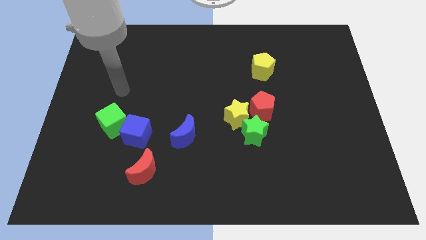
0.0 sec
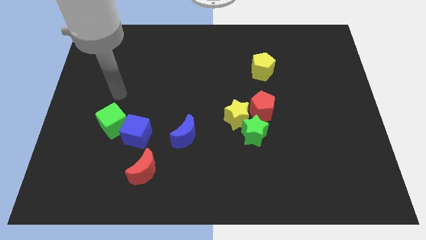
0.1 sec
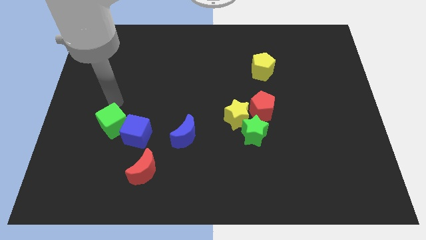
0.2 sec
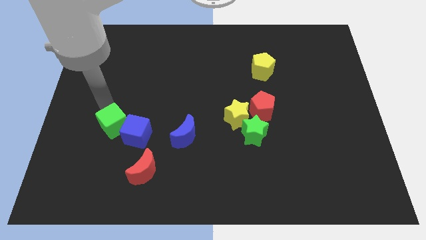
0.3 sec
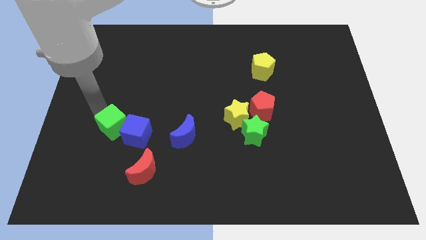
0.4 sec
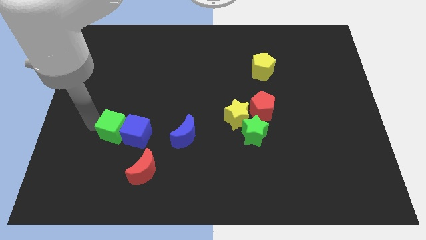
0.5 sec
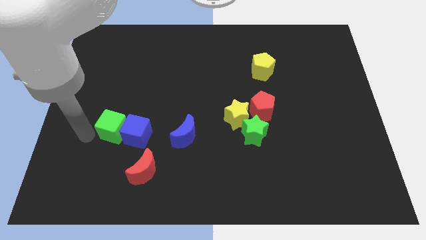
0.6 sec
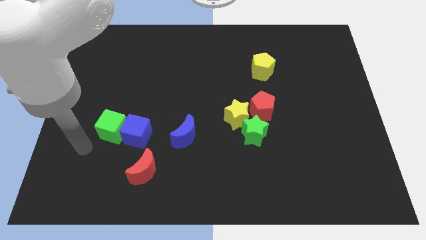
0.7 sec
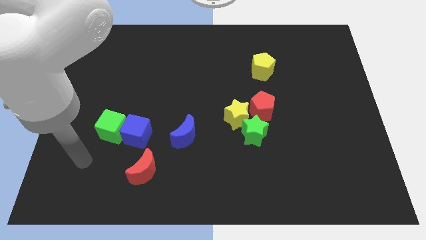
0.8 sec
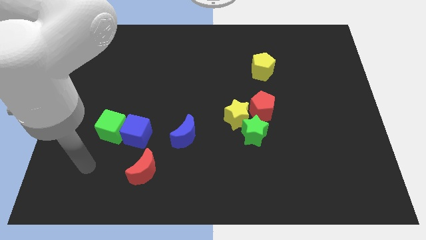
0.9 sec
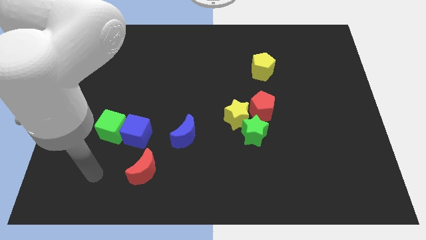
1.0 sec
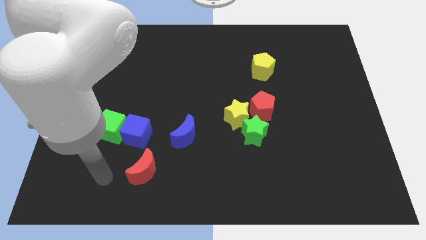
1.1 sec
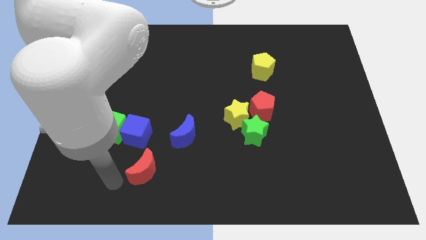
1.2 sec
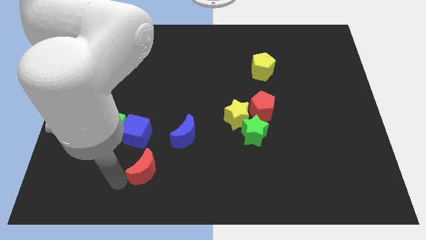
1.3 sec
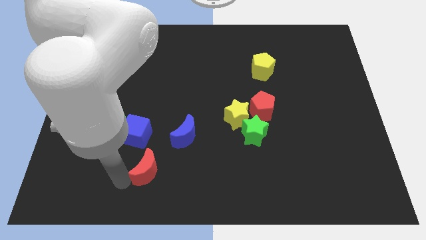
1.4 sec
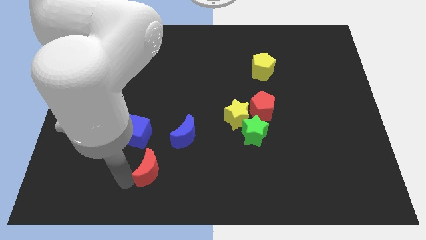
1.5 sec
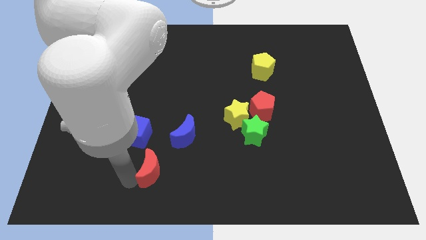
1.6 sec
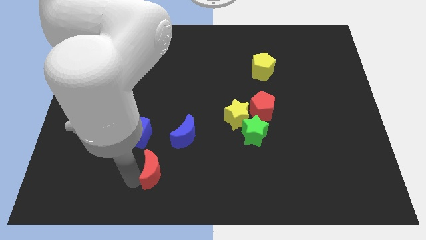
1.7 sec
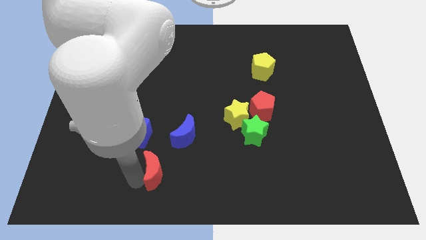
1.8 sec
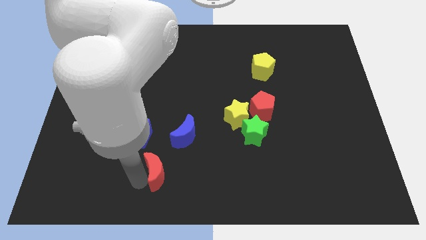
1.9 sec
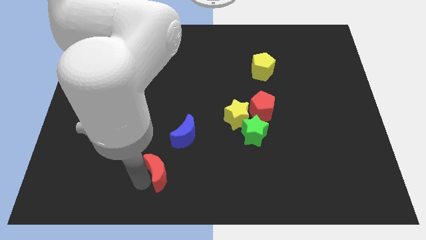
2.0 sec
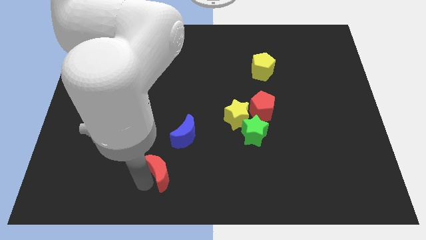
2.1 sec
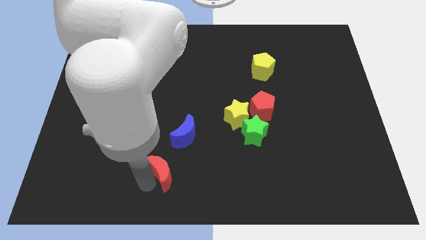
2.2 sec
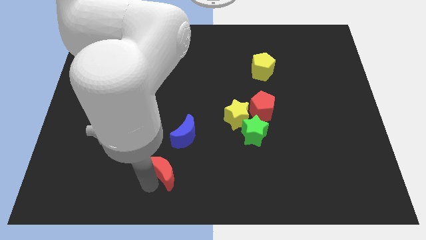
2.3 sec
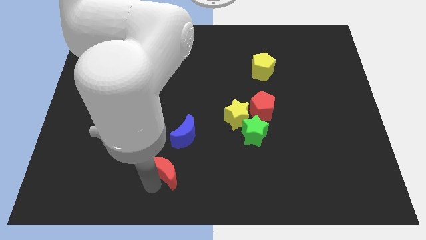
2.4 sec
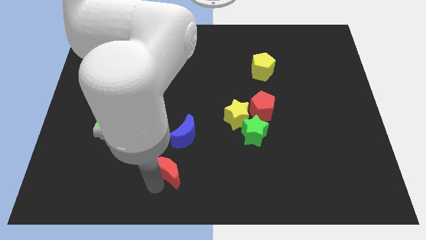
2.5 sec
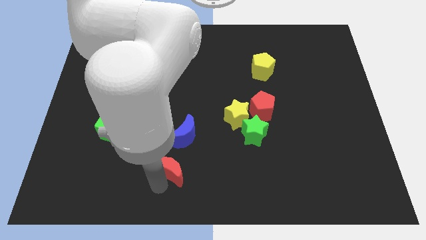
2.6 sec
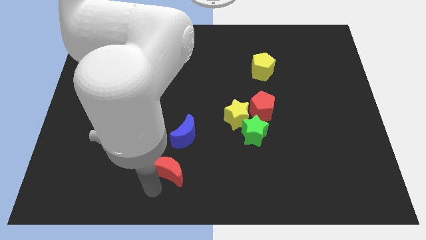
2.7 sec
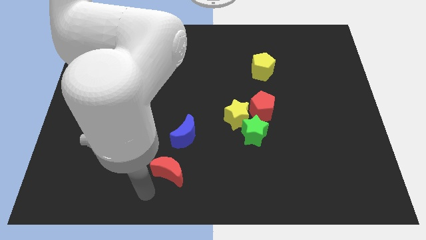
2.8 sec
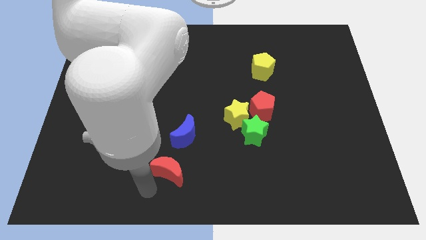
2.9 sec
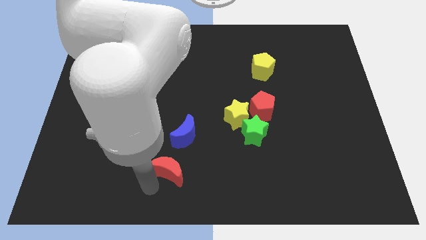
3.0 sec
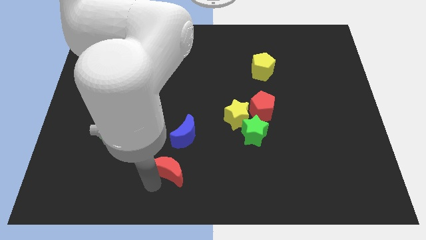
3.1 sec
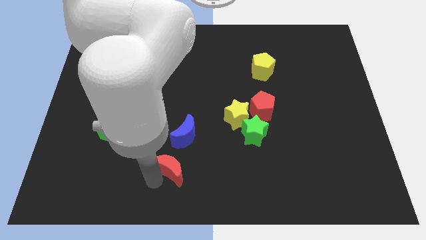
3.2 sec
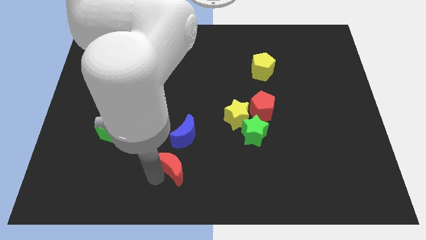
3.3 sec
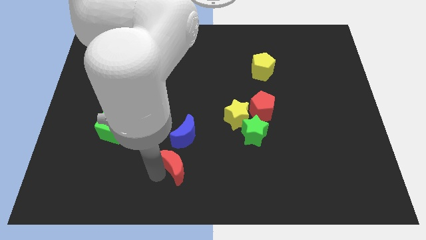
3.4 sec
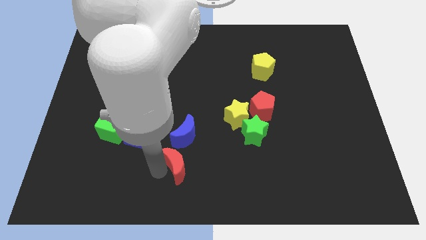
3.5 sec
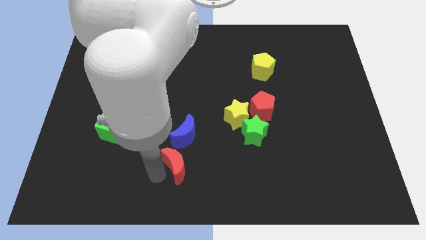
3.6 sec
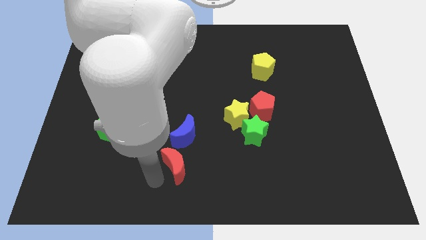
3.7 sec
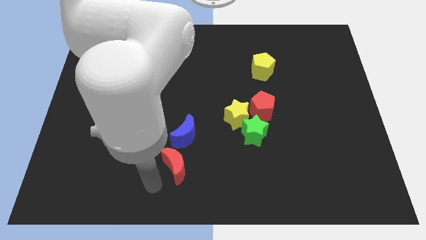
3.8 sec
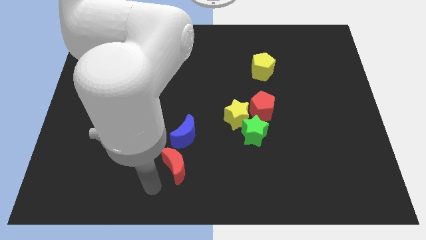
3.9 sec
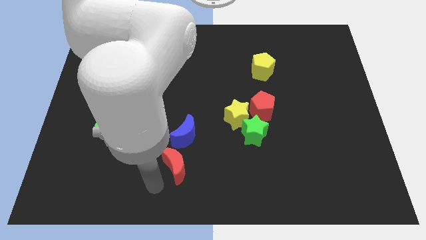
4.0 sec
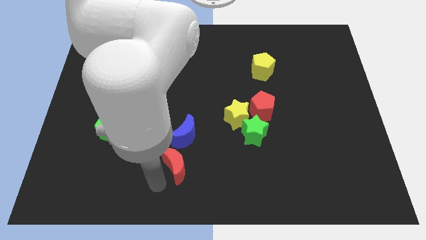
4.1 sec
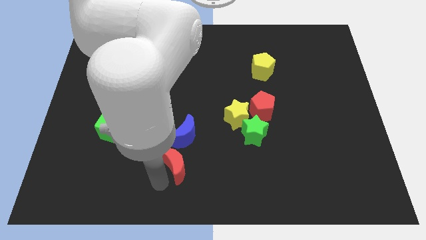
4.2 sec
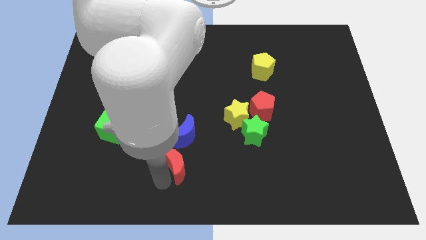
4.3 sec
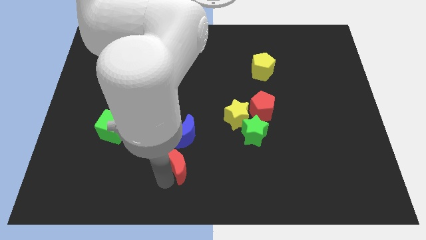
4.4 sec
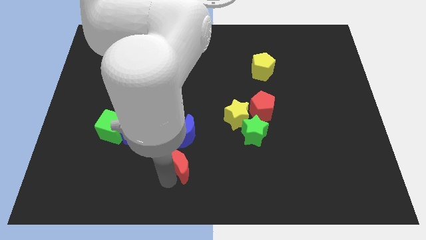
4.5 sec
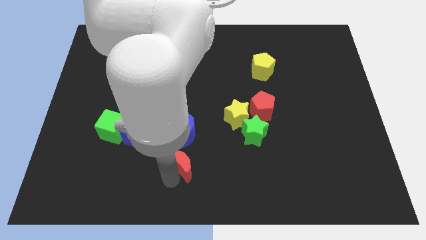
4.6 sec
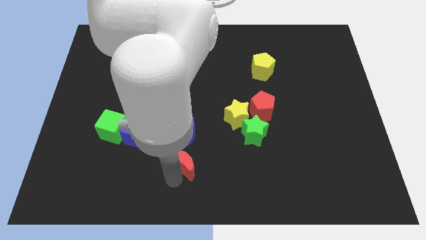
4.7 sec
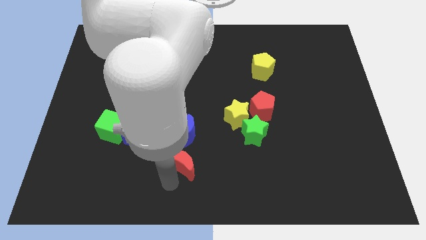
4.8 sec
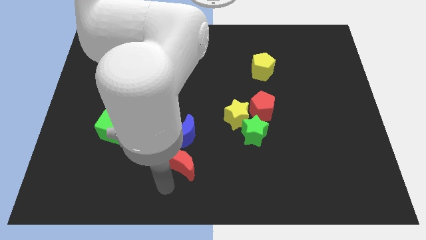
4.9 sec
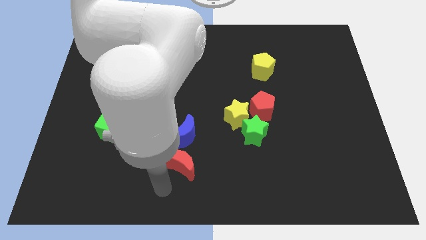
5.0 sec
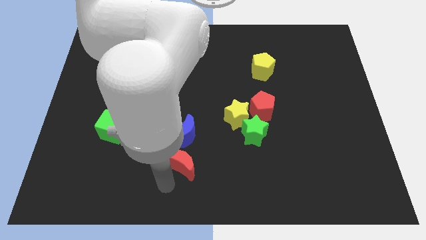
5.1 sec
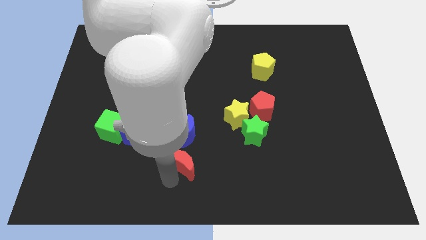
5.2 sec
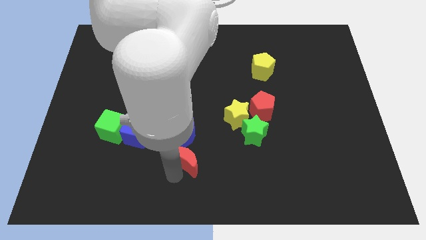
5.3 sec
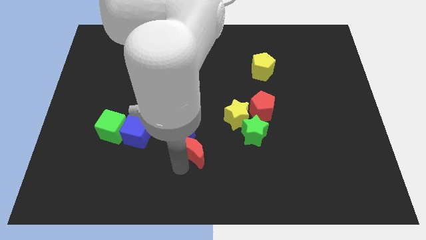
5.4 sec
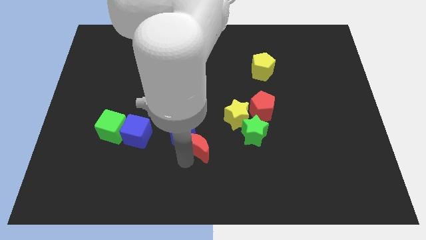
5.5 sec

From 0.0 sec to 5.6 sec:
move the red moon to the bottom left of the yellow star

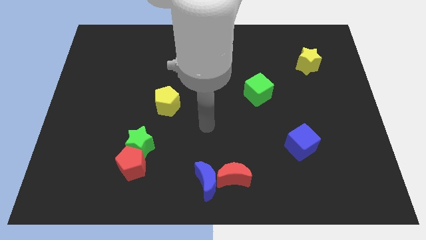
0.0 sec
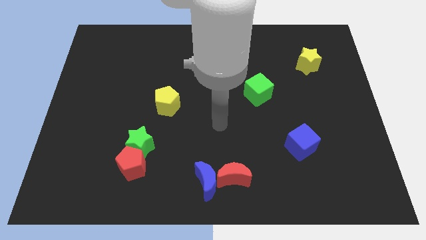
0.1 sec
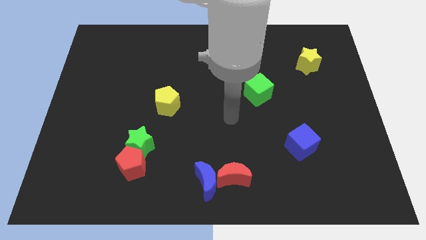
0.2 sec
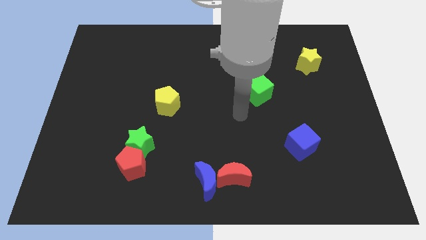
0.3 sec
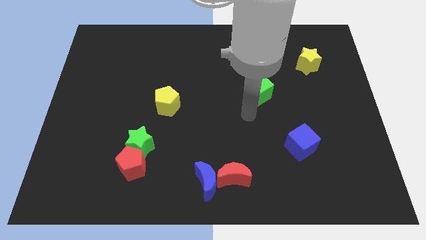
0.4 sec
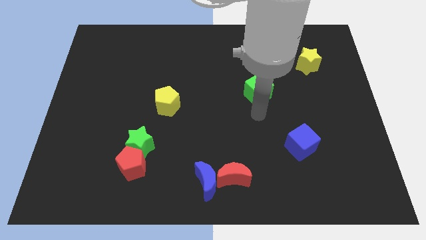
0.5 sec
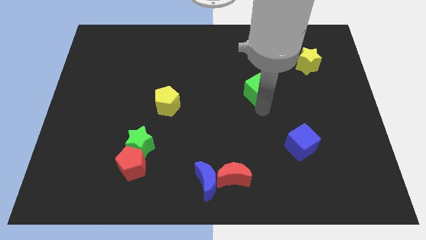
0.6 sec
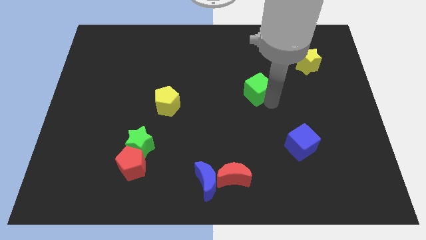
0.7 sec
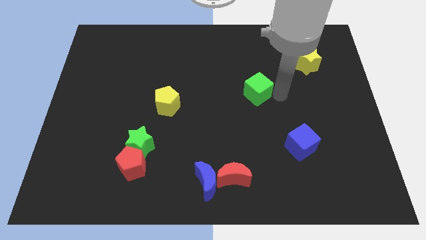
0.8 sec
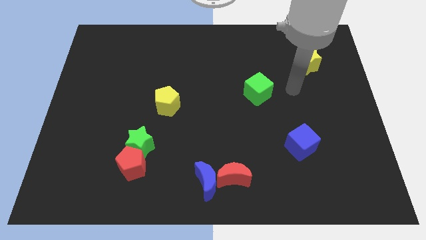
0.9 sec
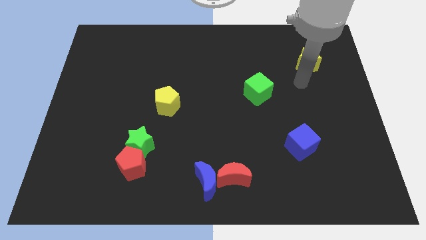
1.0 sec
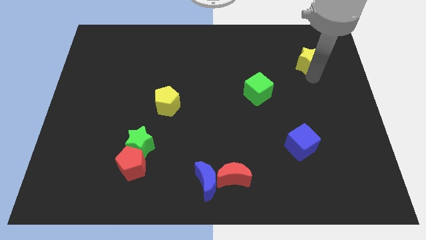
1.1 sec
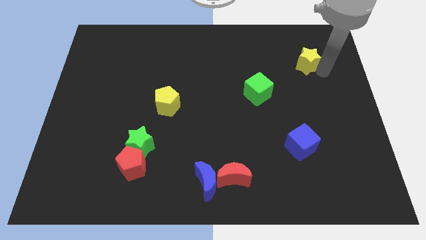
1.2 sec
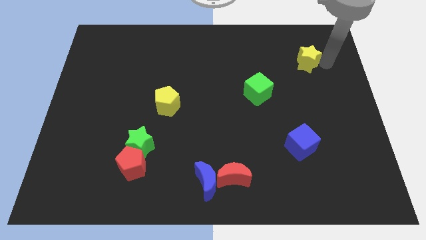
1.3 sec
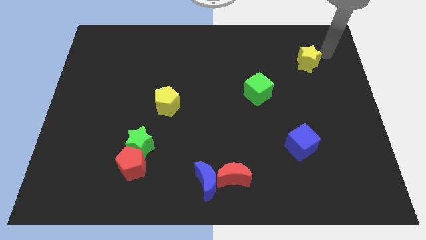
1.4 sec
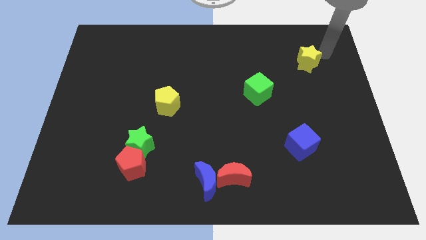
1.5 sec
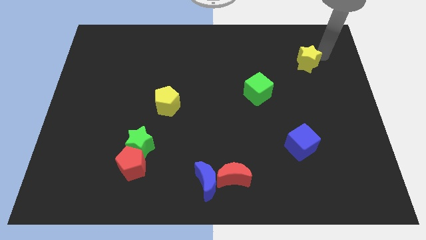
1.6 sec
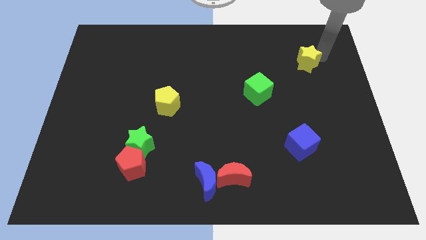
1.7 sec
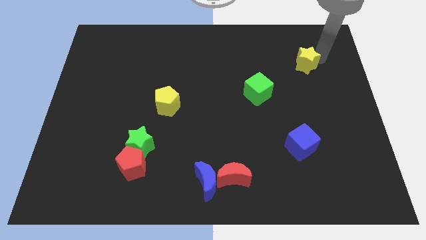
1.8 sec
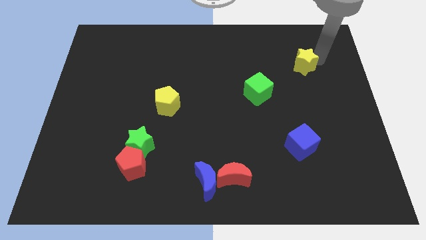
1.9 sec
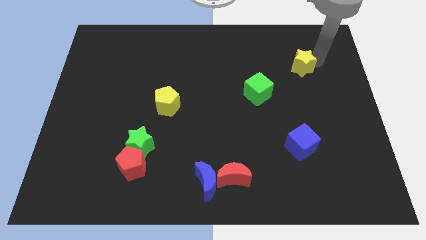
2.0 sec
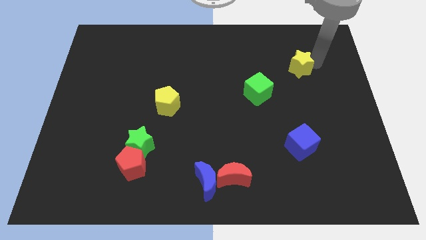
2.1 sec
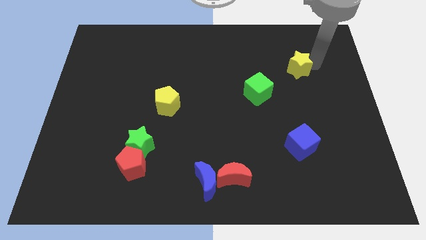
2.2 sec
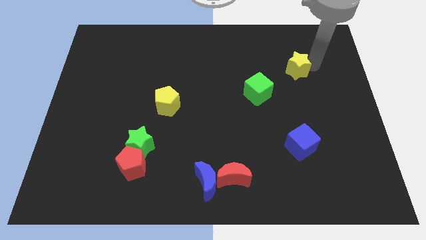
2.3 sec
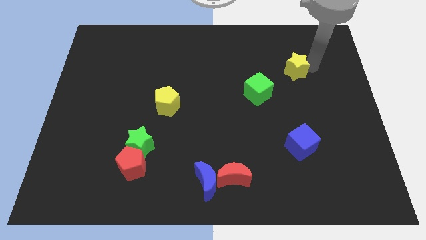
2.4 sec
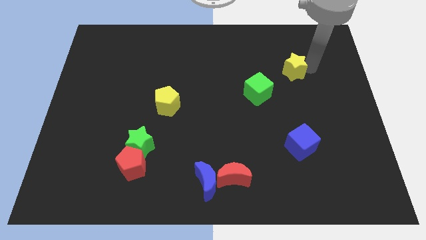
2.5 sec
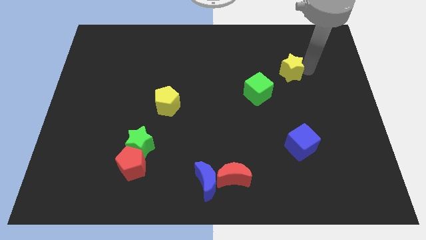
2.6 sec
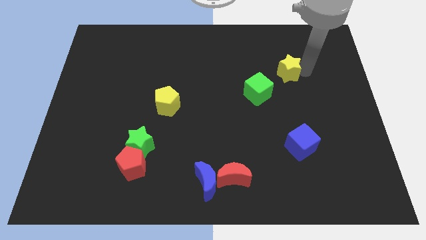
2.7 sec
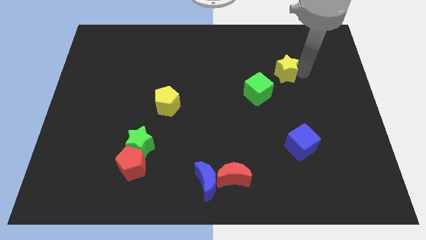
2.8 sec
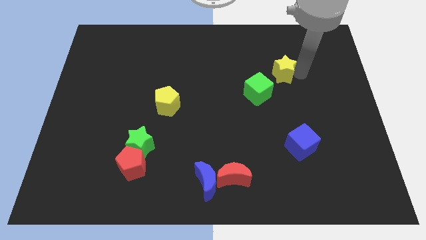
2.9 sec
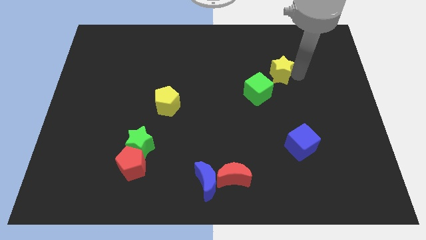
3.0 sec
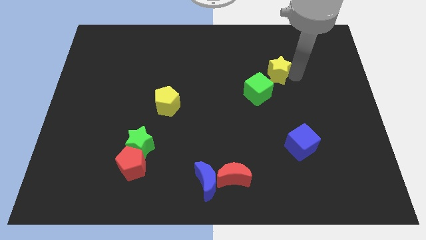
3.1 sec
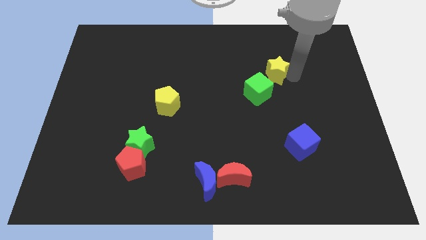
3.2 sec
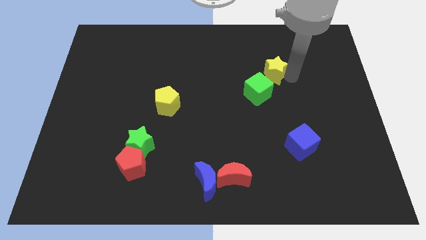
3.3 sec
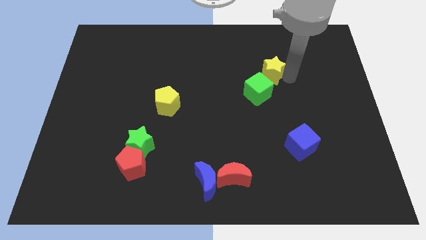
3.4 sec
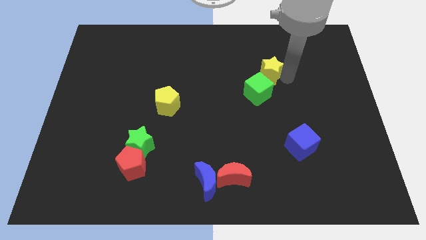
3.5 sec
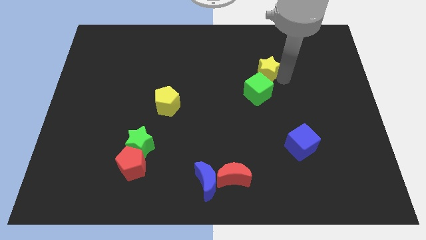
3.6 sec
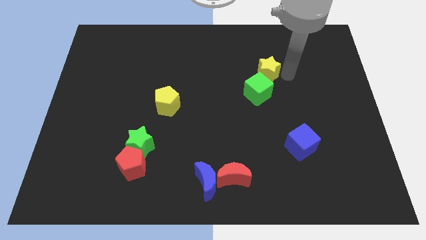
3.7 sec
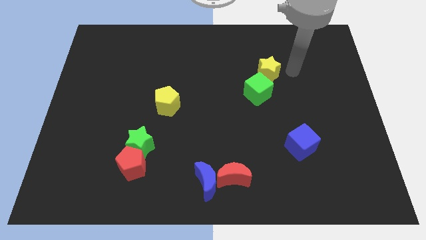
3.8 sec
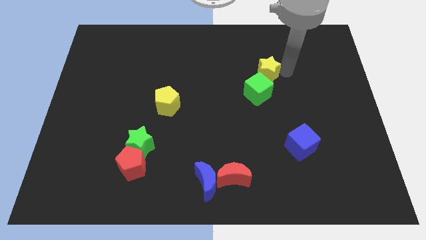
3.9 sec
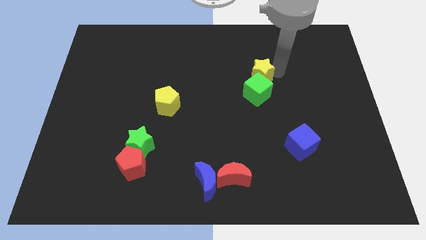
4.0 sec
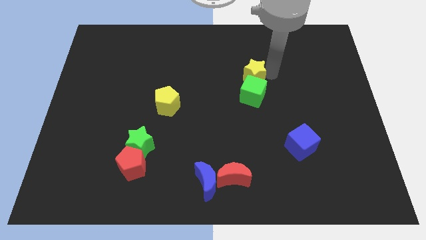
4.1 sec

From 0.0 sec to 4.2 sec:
push the yellow star to the top left side of the green cube
